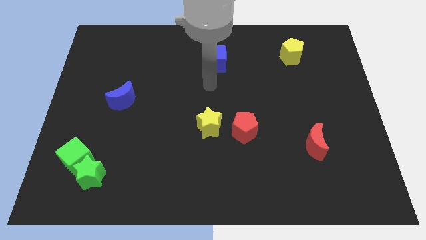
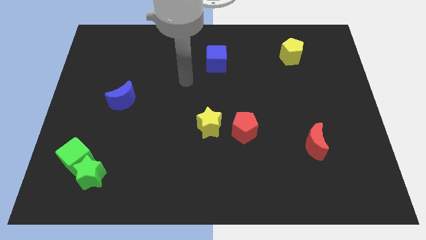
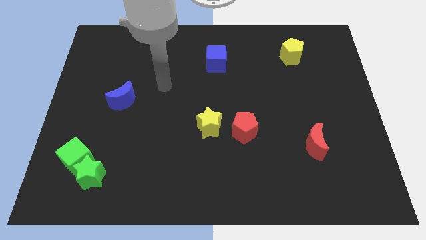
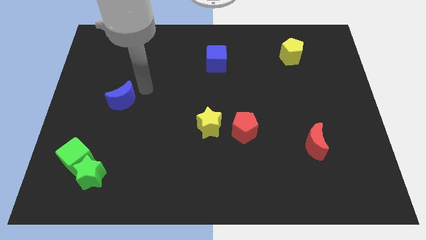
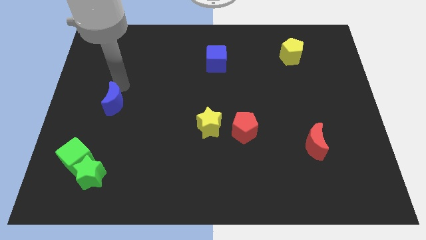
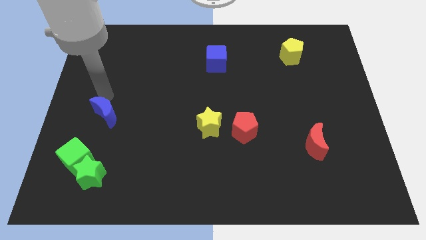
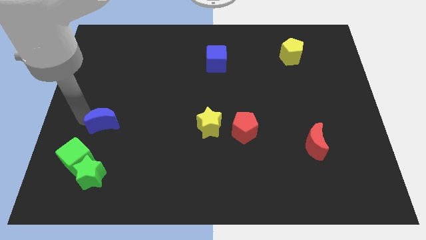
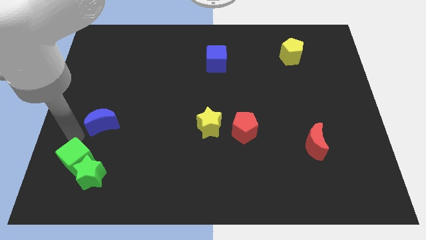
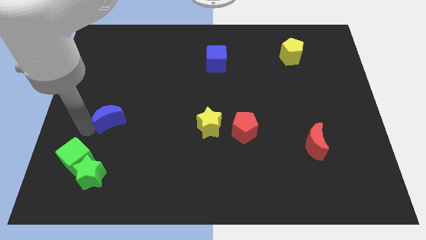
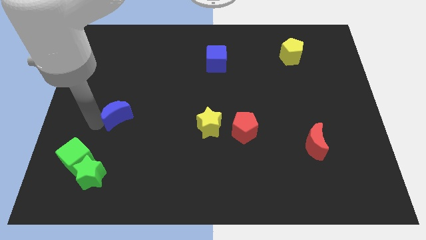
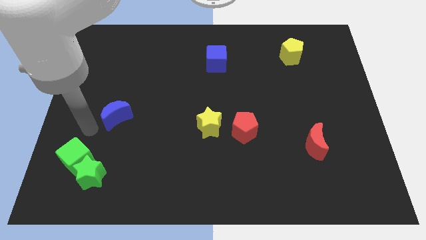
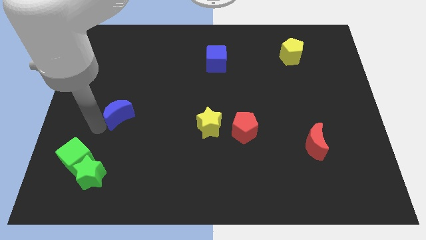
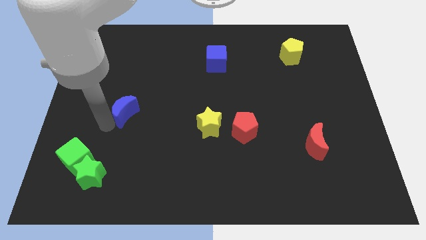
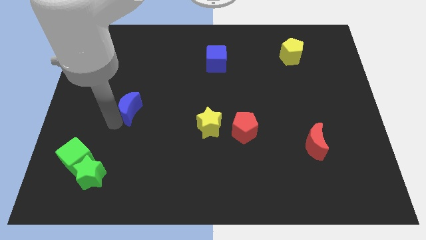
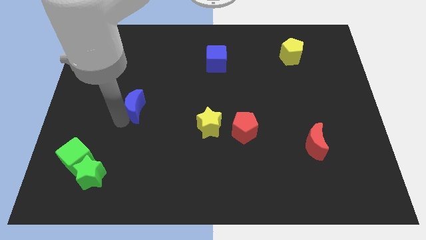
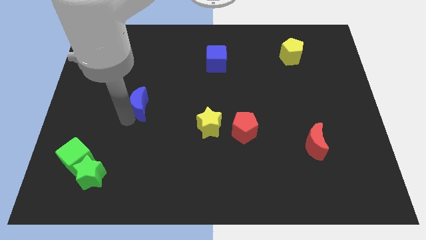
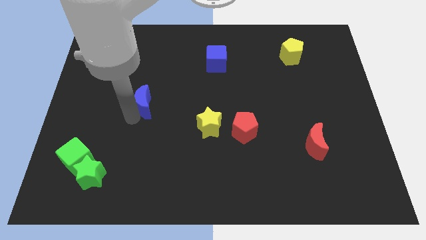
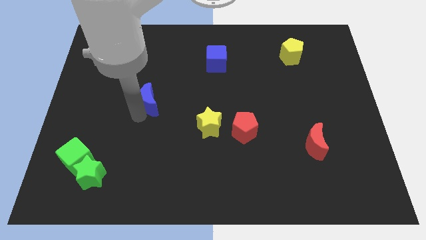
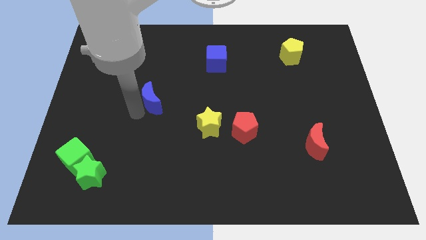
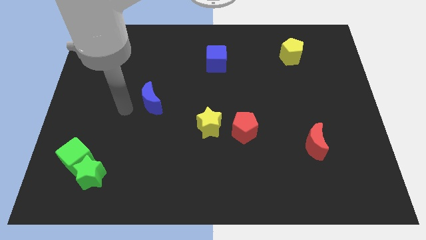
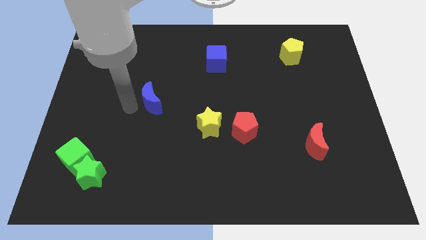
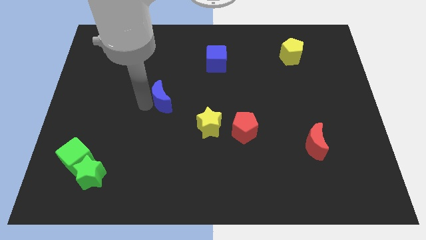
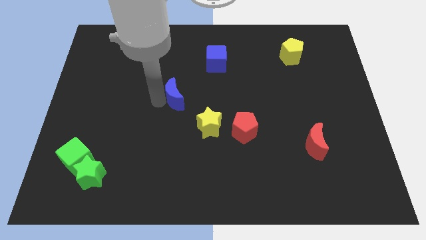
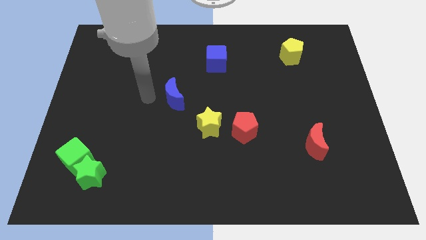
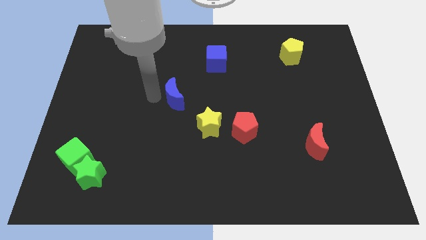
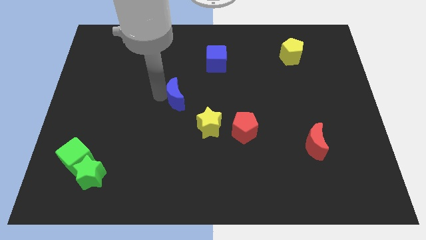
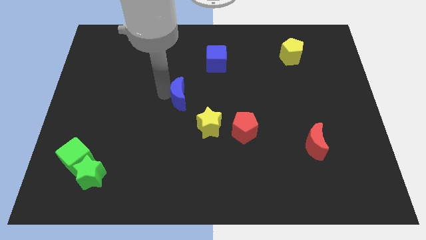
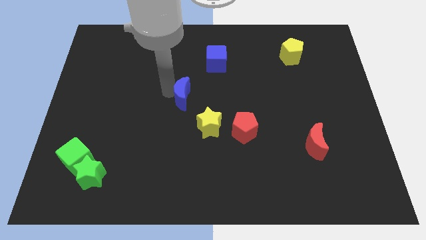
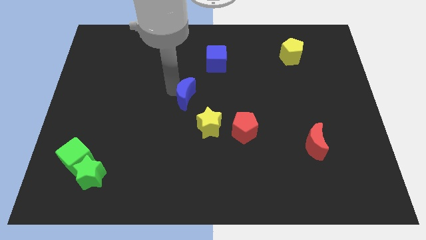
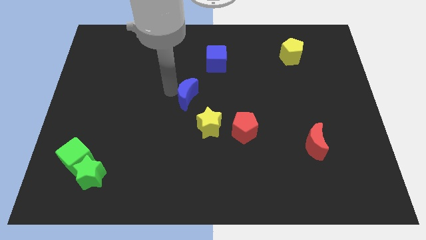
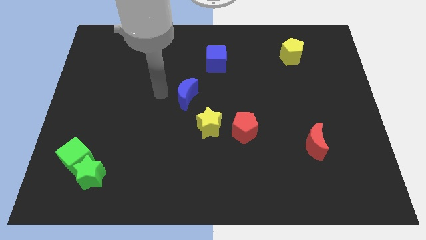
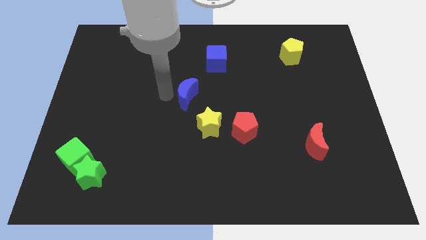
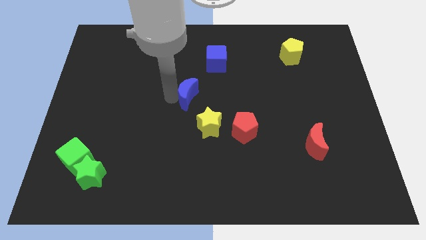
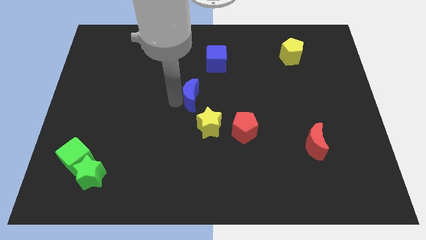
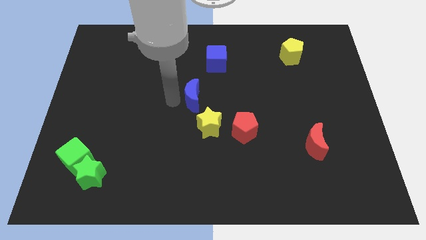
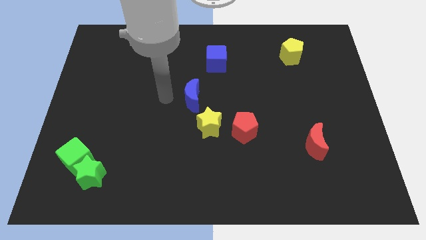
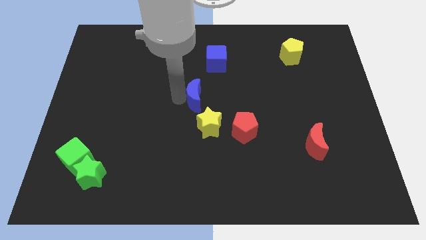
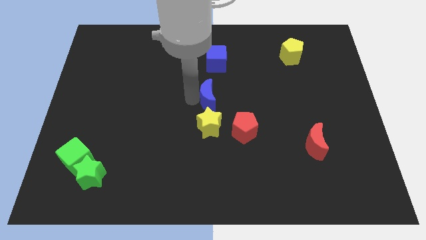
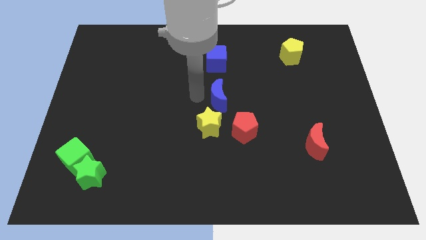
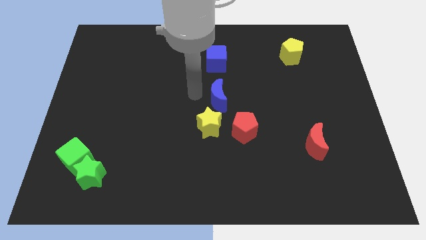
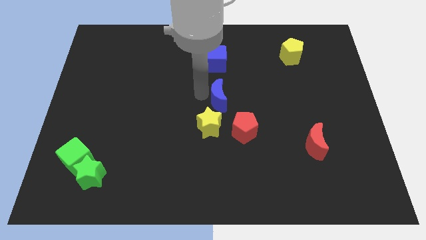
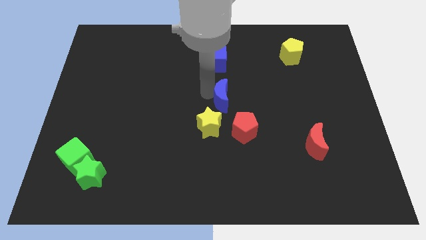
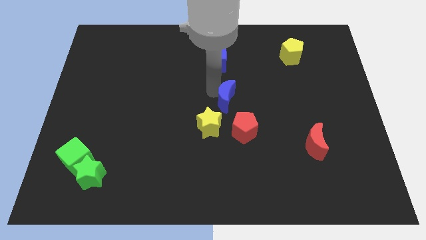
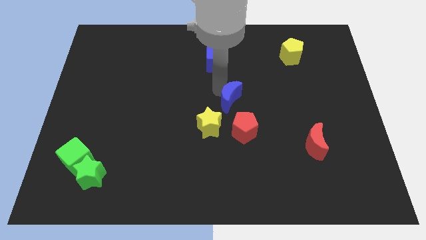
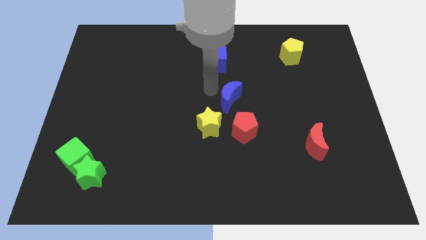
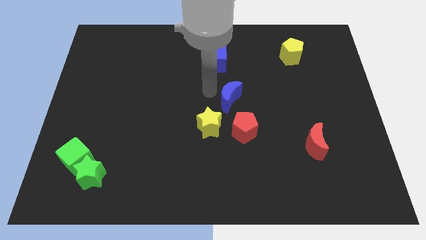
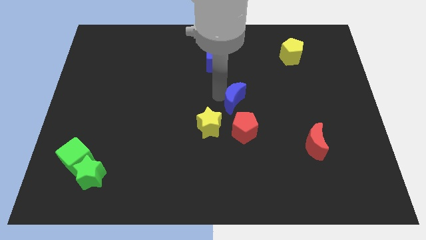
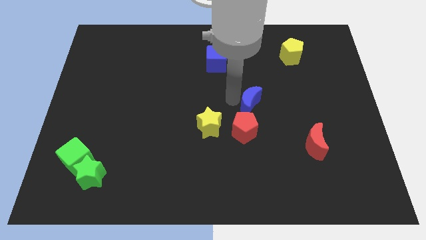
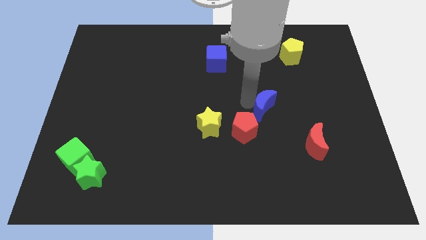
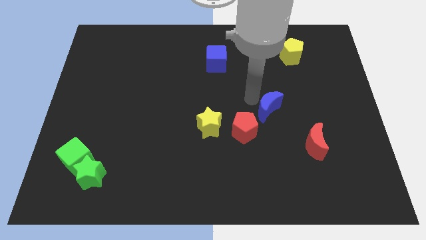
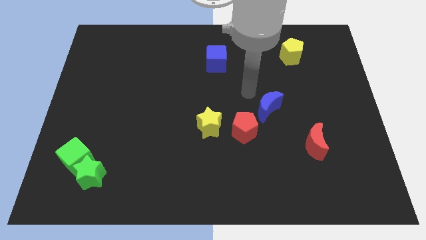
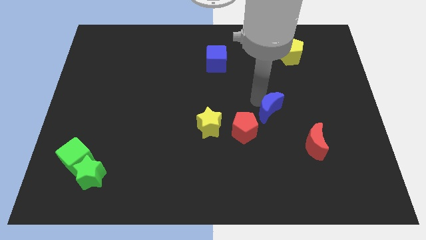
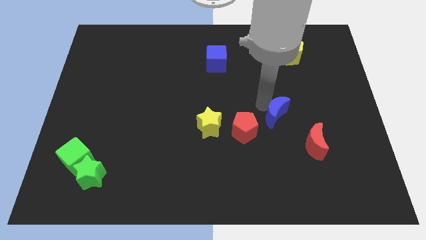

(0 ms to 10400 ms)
put the blue moon diagonally up and to the left of the red moon

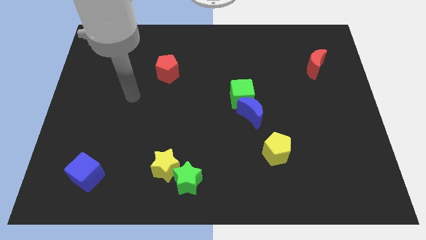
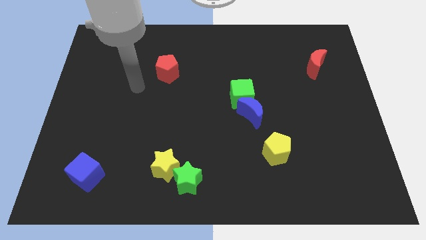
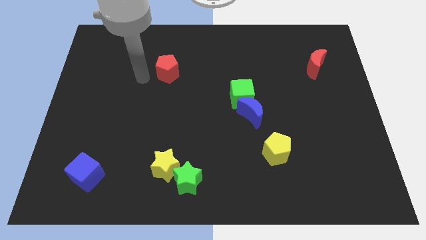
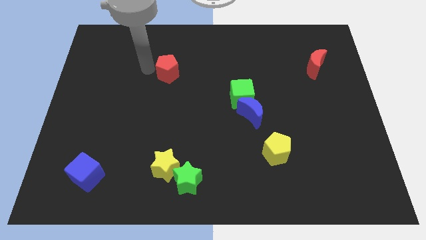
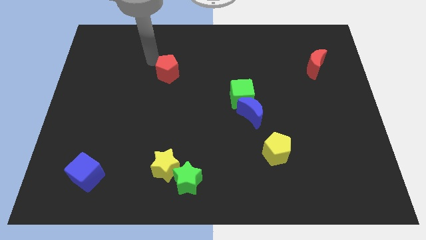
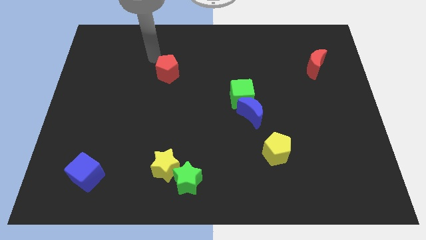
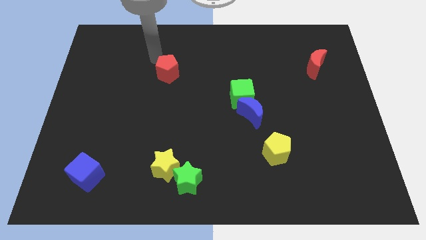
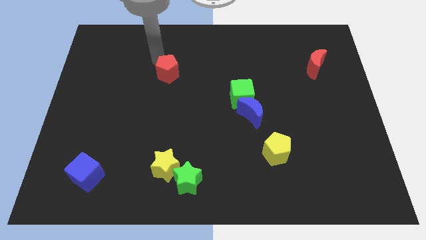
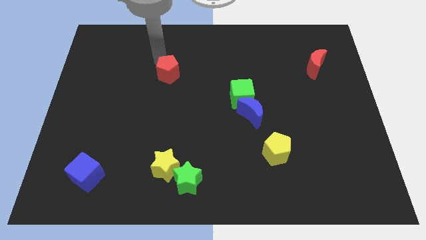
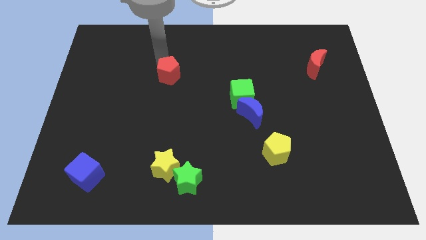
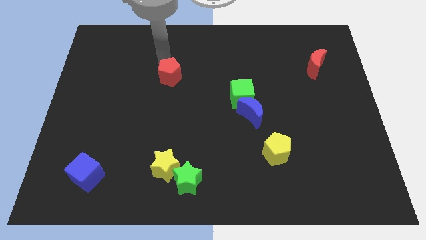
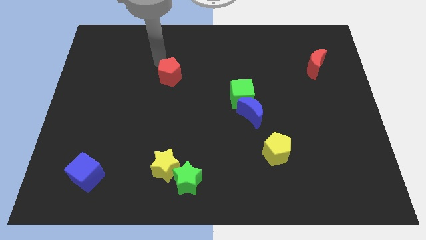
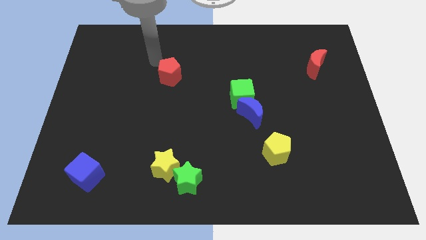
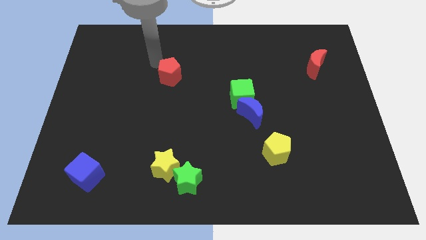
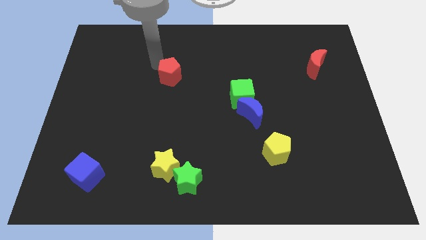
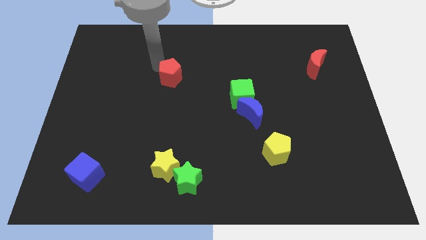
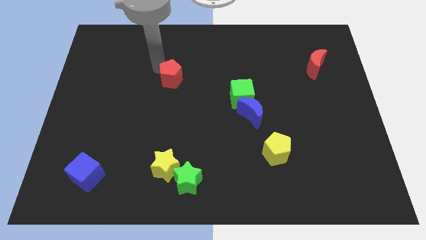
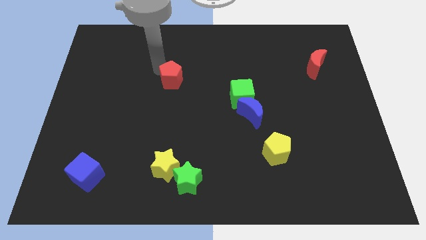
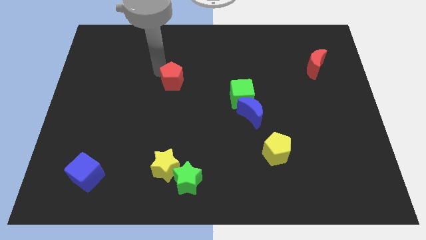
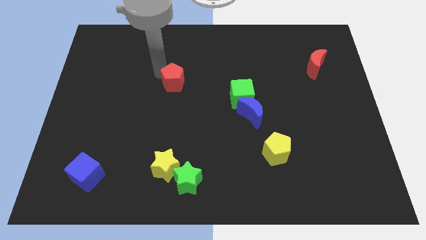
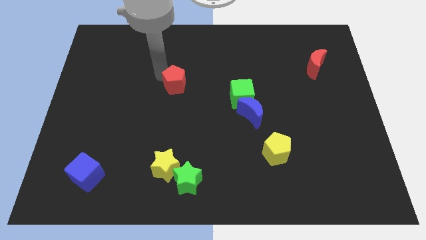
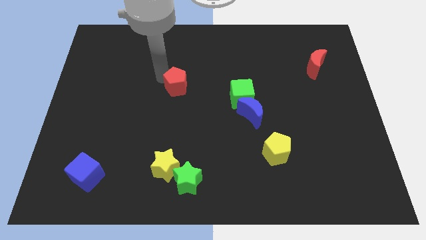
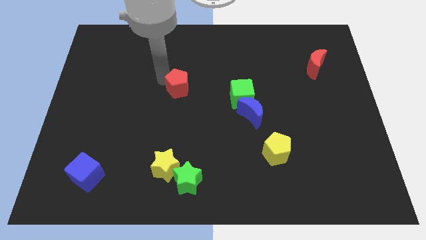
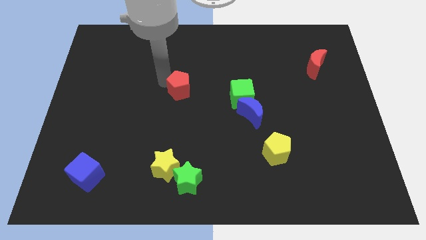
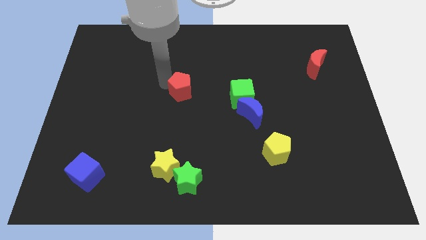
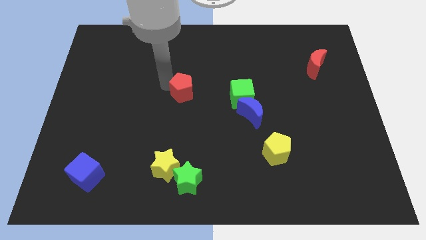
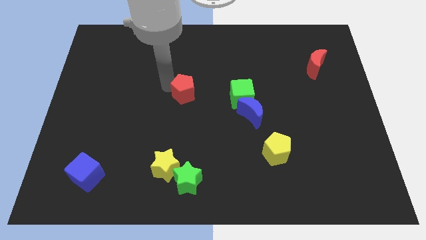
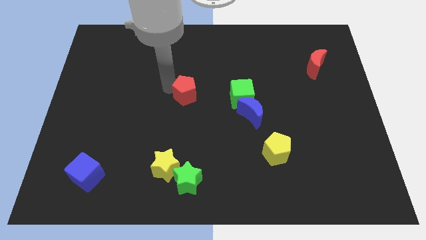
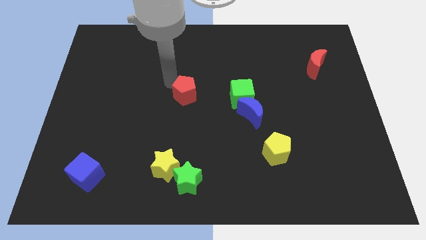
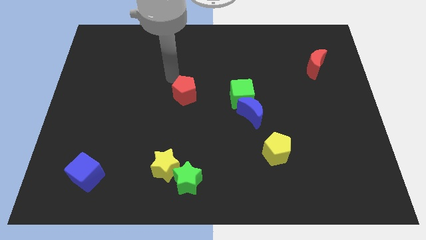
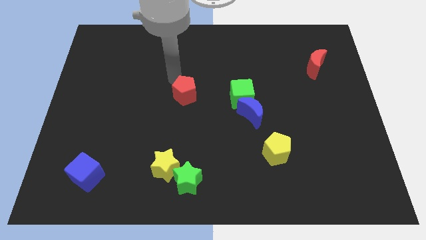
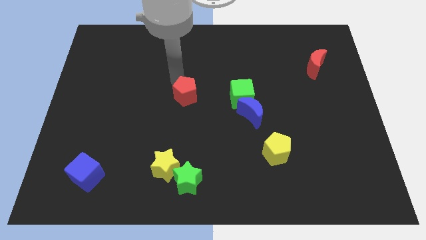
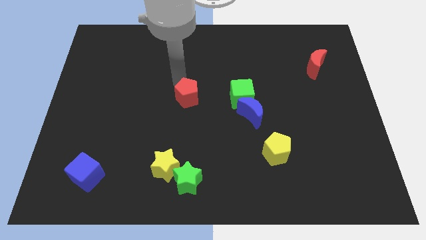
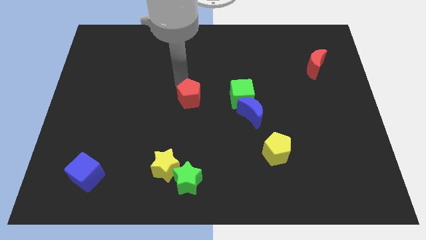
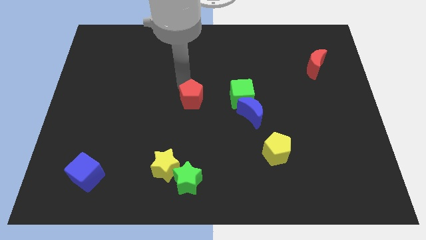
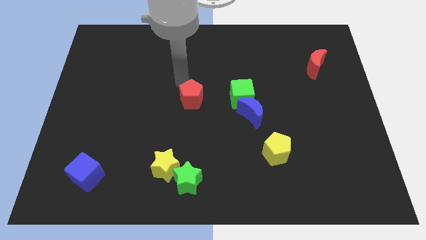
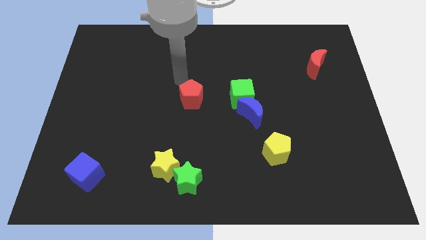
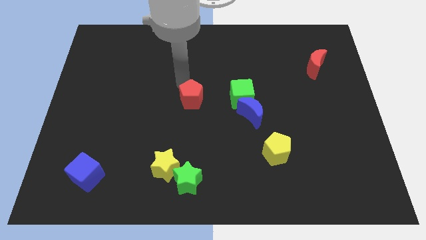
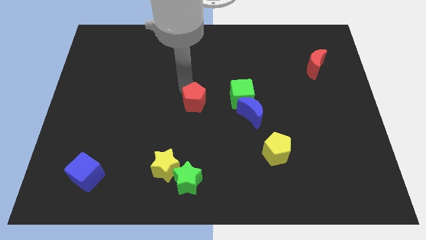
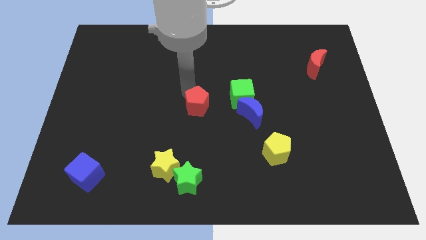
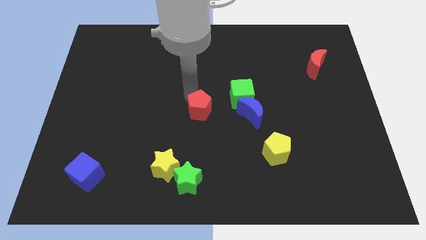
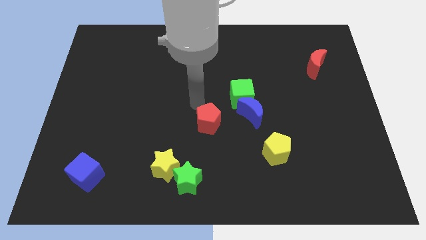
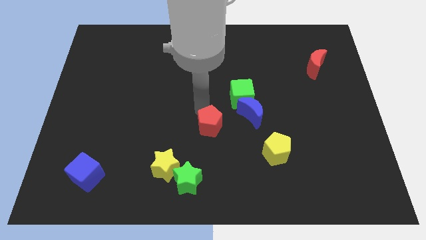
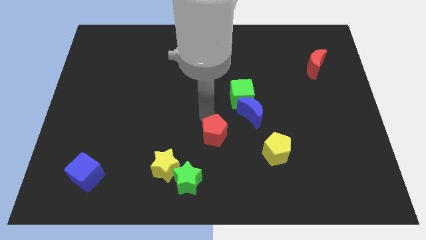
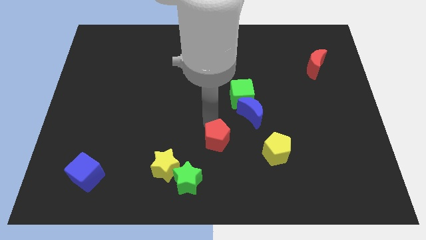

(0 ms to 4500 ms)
move the red pentagon diagonally up and to the right of the green star
